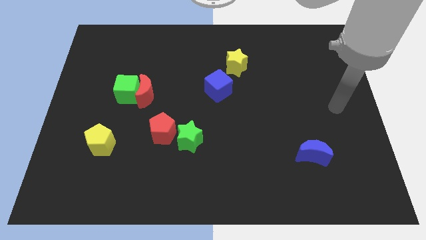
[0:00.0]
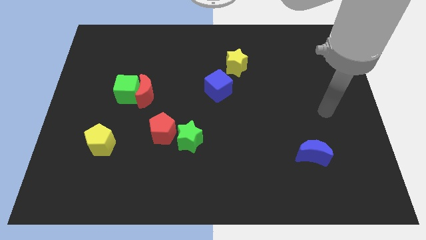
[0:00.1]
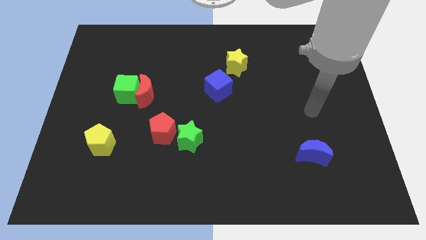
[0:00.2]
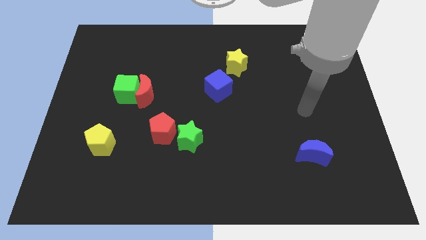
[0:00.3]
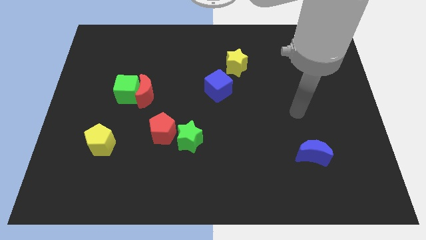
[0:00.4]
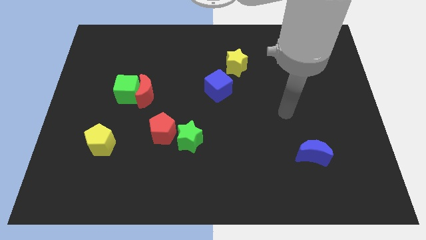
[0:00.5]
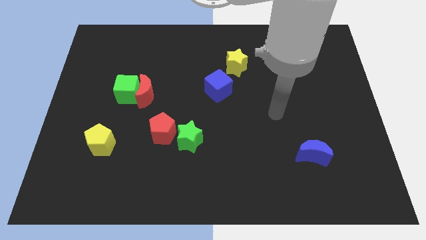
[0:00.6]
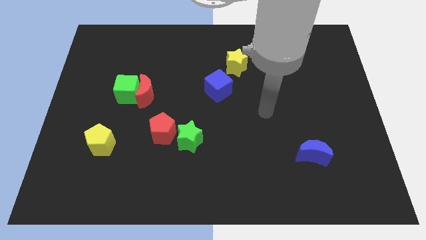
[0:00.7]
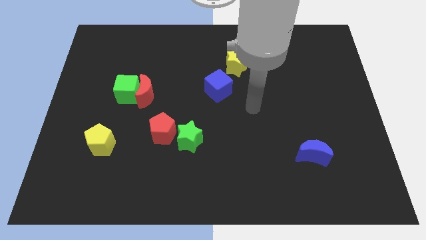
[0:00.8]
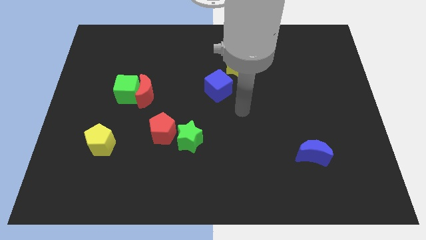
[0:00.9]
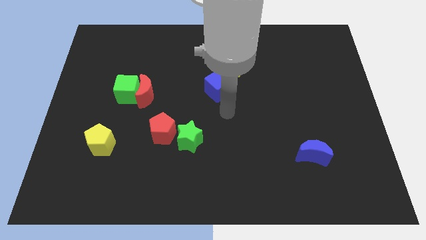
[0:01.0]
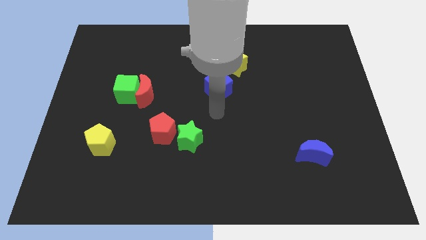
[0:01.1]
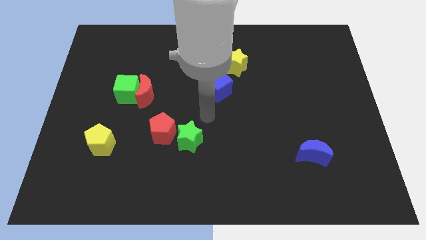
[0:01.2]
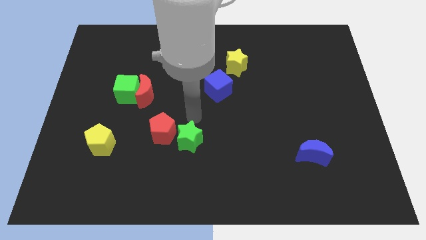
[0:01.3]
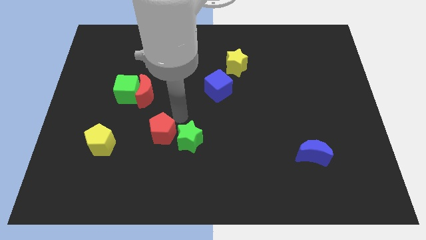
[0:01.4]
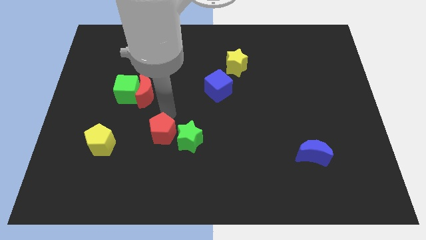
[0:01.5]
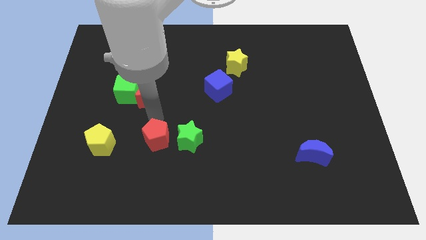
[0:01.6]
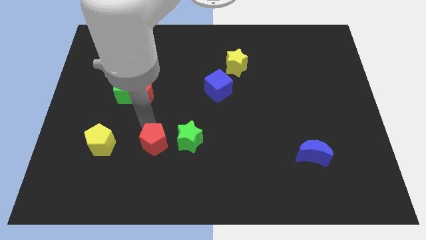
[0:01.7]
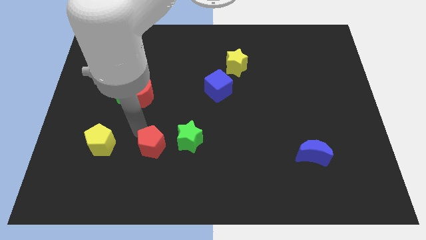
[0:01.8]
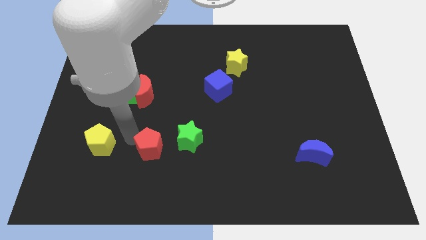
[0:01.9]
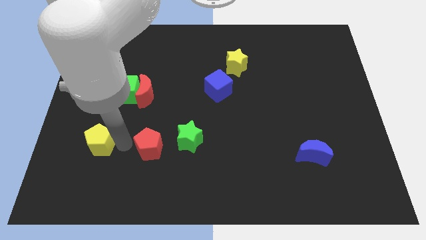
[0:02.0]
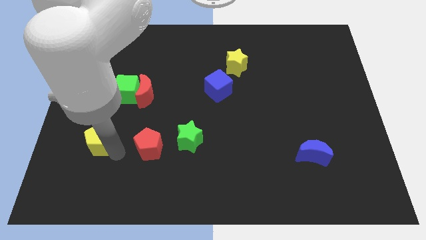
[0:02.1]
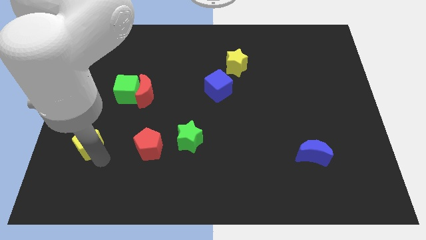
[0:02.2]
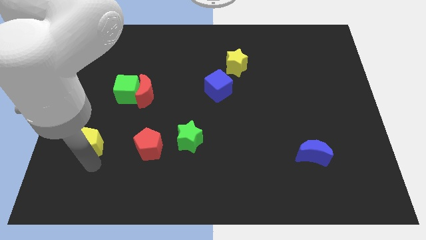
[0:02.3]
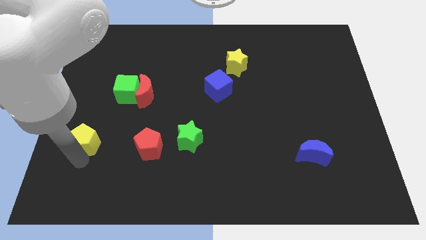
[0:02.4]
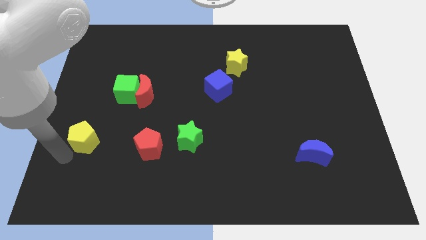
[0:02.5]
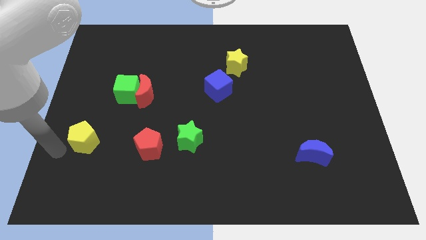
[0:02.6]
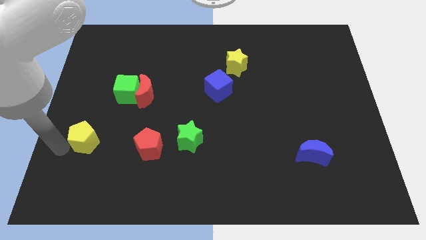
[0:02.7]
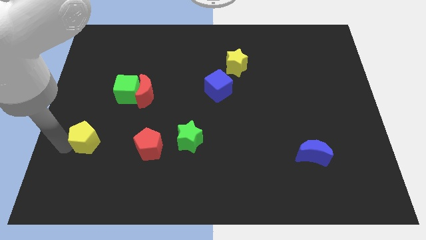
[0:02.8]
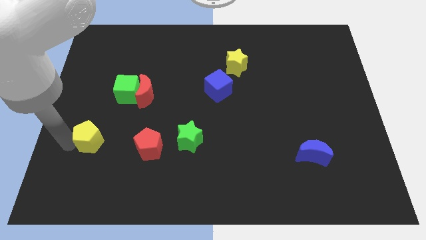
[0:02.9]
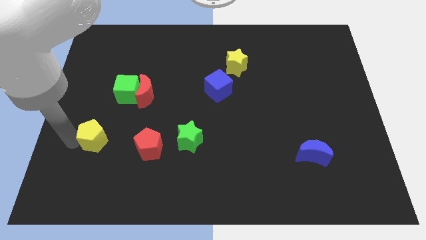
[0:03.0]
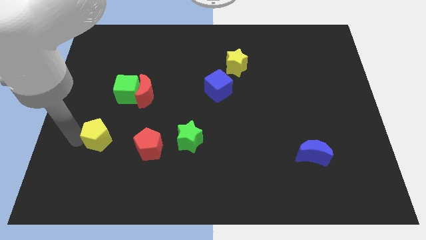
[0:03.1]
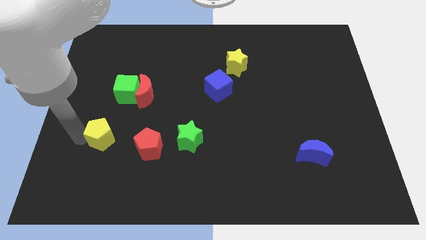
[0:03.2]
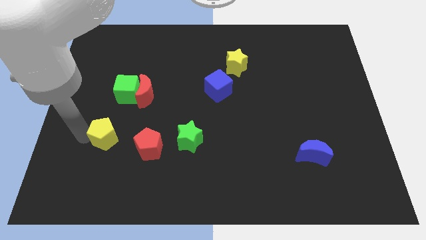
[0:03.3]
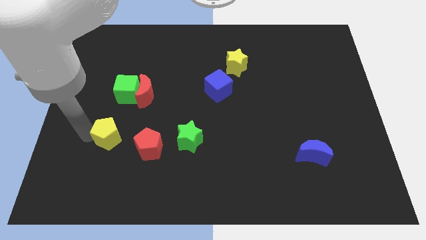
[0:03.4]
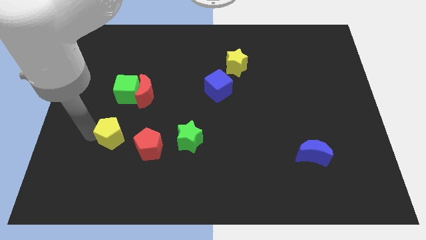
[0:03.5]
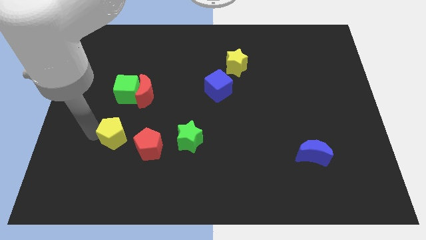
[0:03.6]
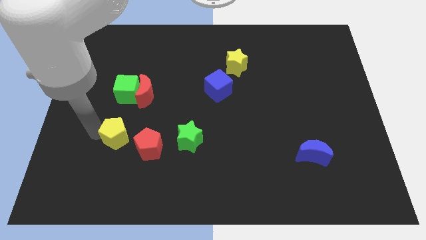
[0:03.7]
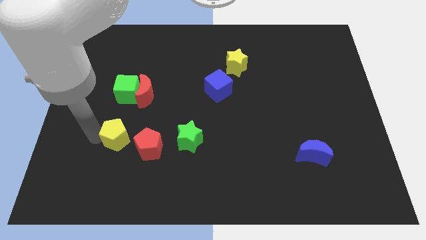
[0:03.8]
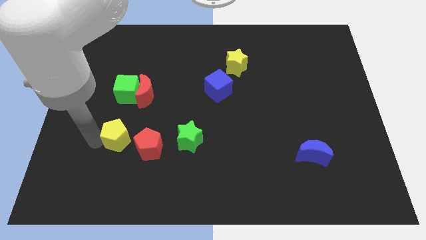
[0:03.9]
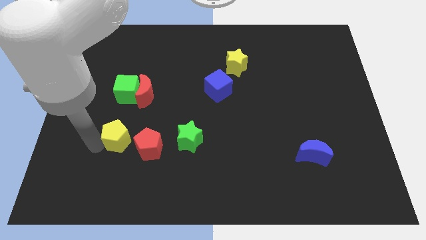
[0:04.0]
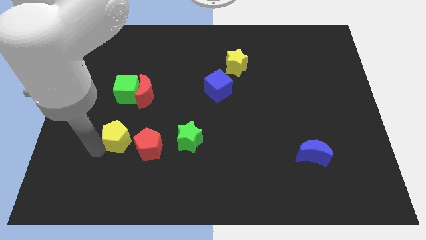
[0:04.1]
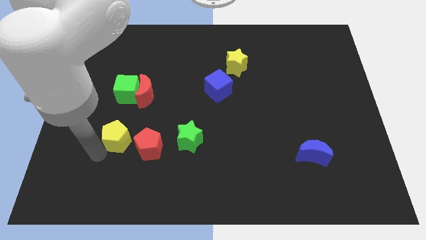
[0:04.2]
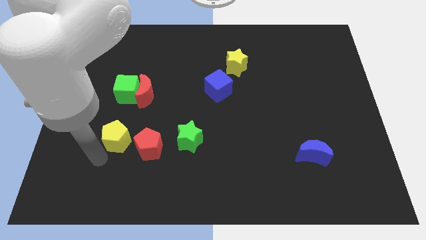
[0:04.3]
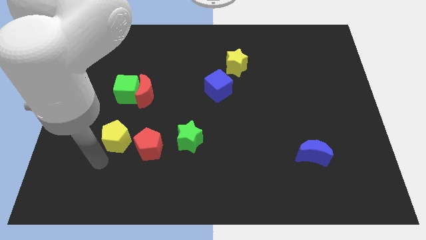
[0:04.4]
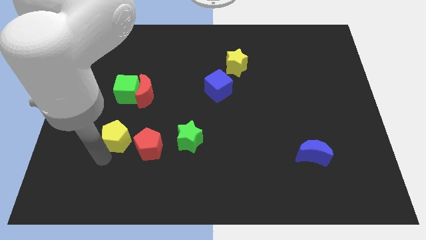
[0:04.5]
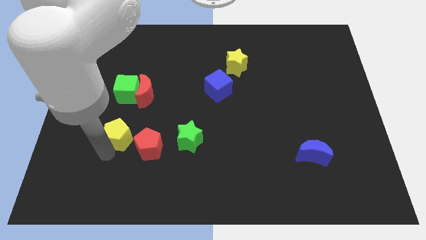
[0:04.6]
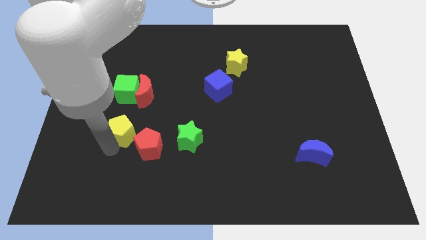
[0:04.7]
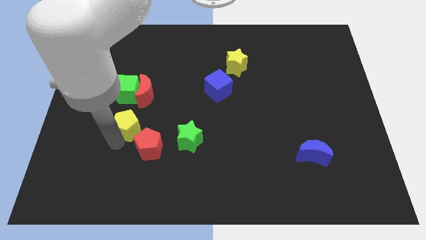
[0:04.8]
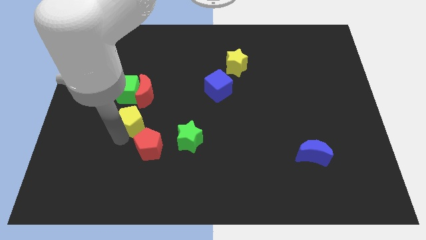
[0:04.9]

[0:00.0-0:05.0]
slide the yellow pentagon slightly upwards and to the right

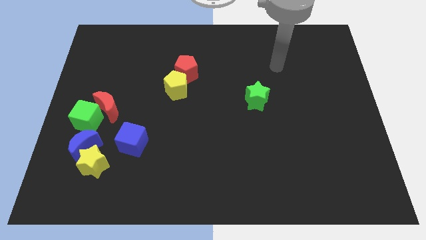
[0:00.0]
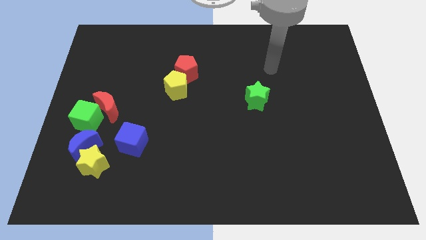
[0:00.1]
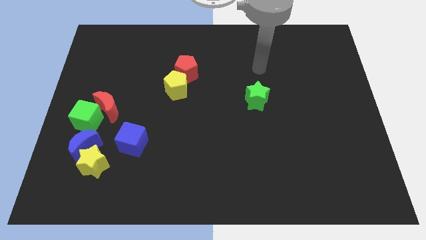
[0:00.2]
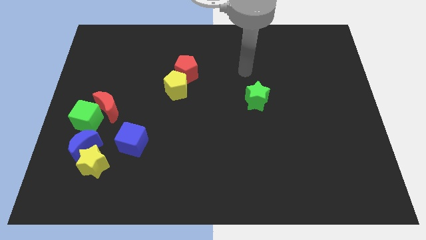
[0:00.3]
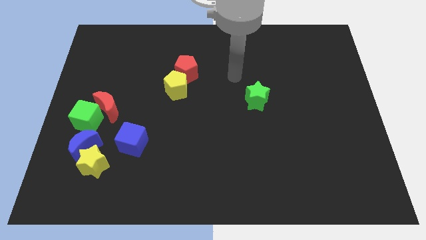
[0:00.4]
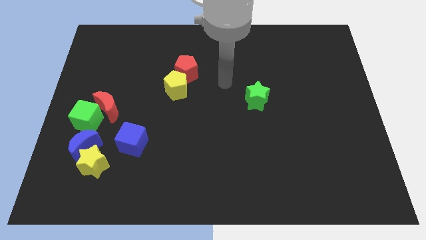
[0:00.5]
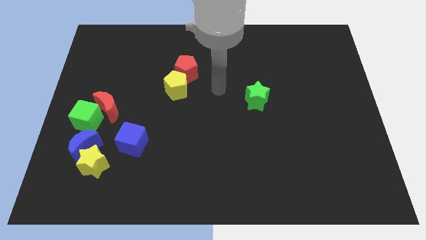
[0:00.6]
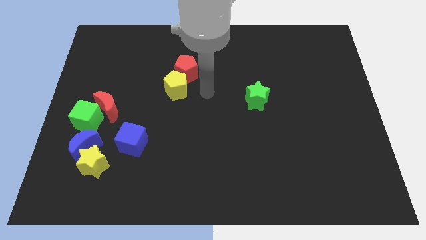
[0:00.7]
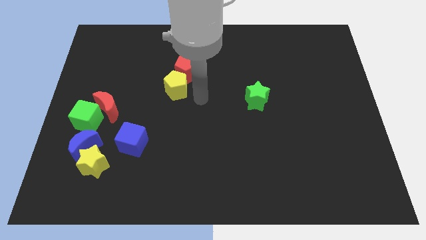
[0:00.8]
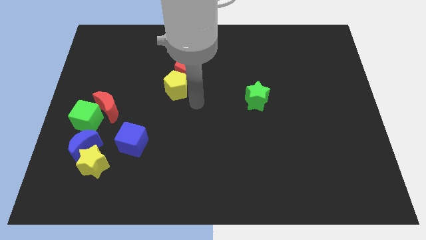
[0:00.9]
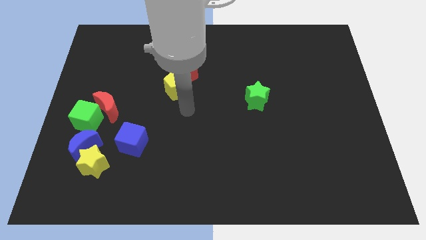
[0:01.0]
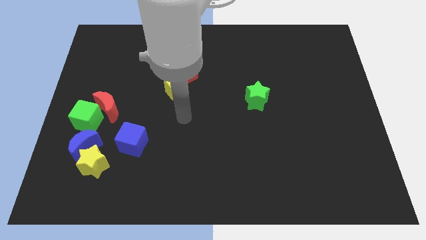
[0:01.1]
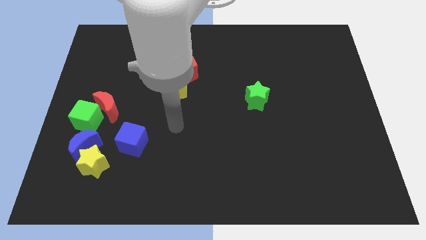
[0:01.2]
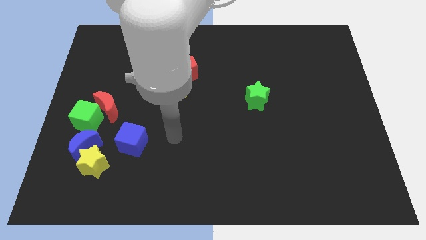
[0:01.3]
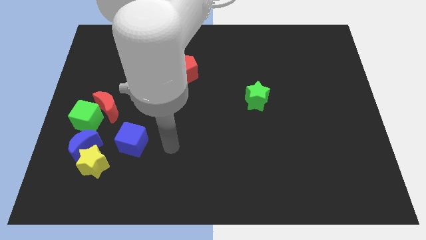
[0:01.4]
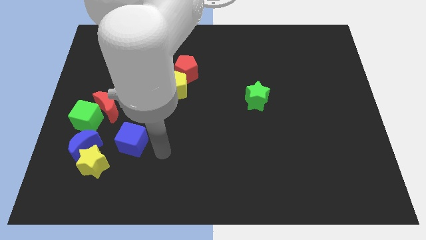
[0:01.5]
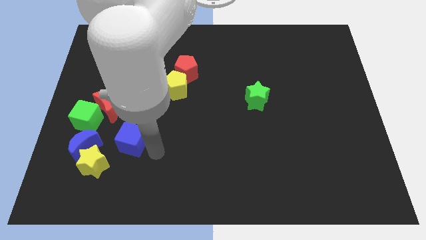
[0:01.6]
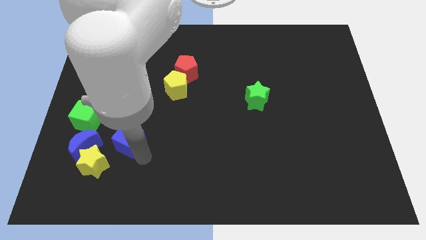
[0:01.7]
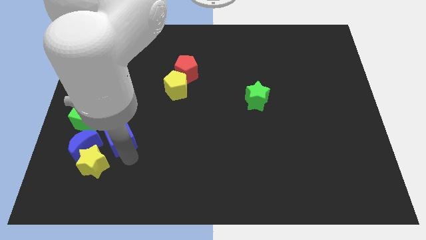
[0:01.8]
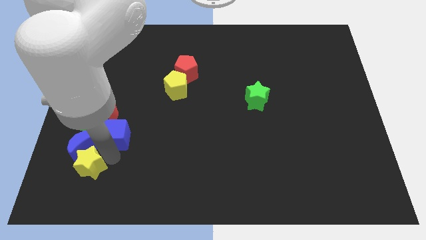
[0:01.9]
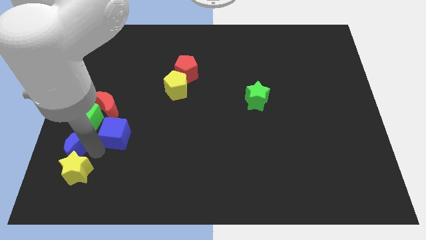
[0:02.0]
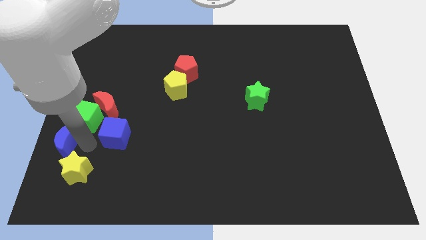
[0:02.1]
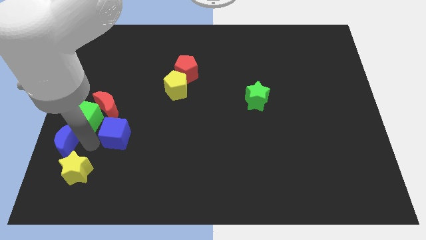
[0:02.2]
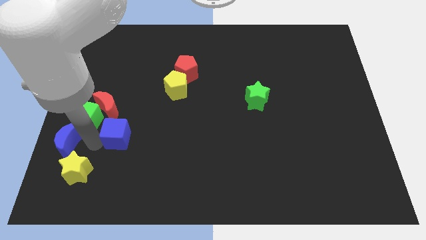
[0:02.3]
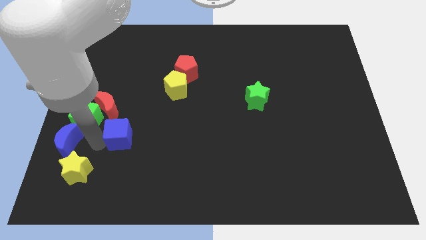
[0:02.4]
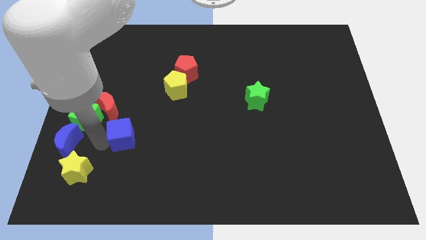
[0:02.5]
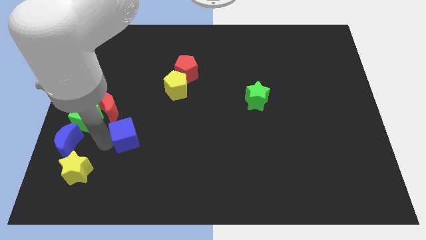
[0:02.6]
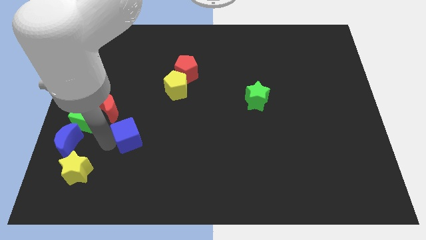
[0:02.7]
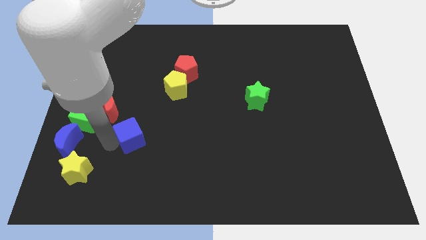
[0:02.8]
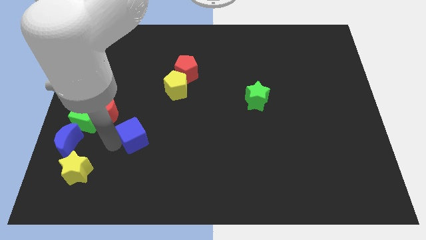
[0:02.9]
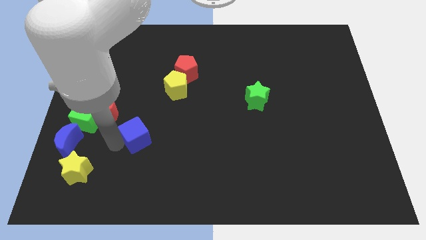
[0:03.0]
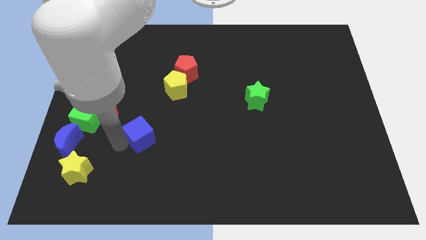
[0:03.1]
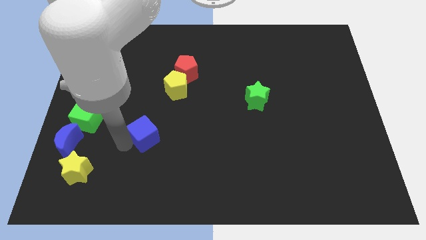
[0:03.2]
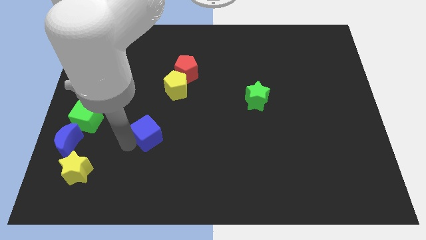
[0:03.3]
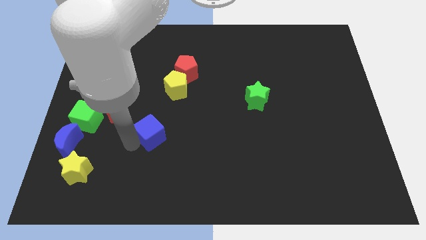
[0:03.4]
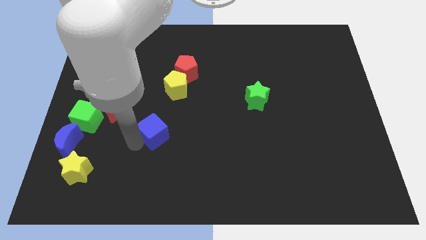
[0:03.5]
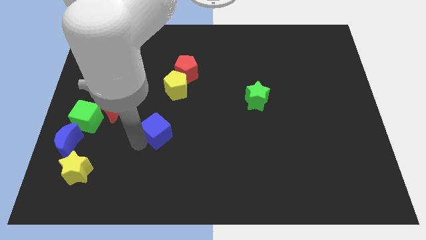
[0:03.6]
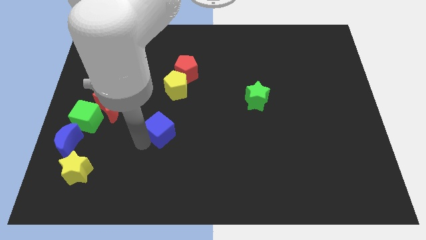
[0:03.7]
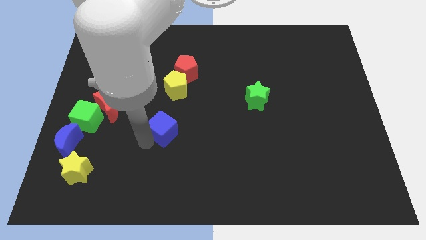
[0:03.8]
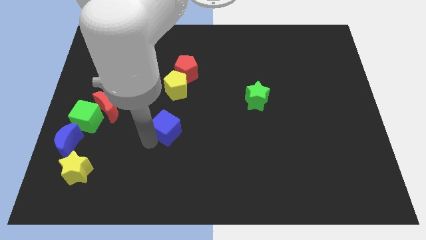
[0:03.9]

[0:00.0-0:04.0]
slightly slide the blue cube up and right diagonally
